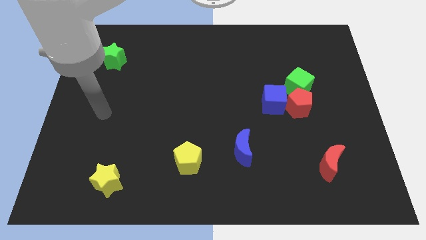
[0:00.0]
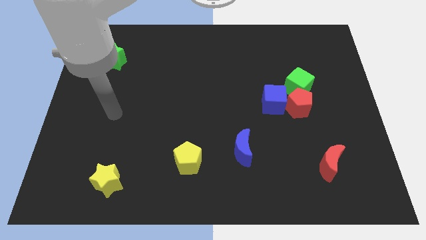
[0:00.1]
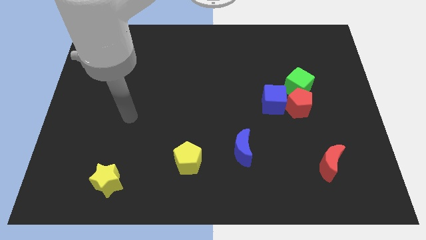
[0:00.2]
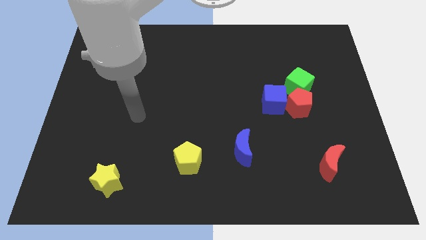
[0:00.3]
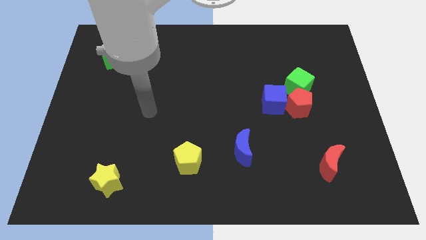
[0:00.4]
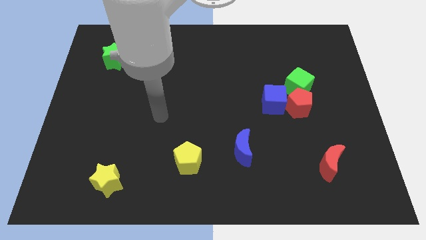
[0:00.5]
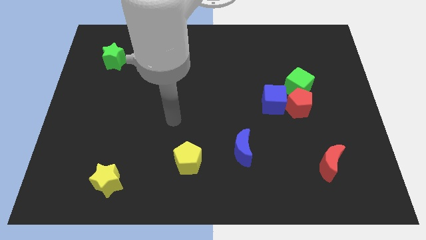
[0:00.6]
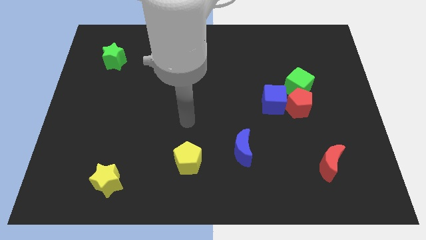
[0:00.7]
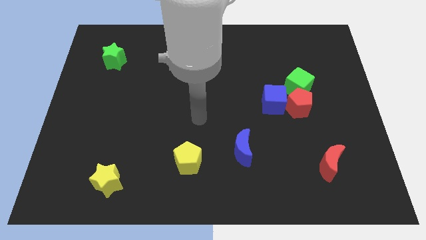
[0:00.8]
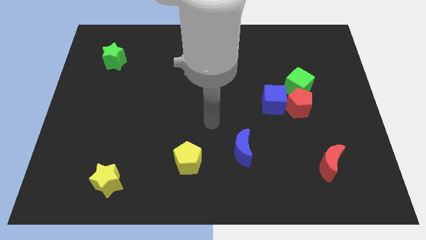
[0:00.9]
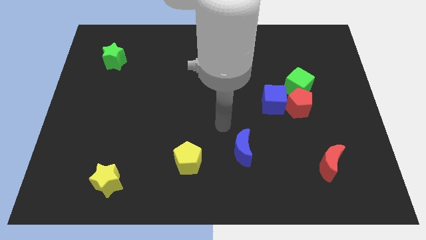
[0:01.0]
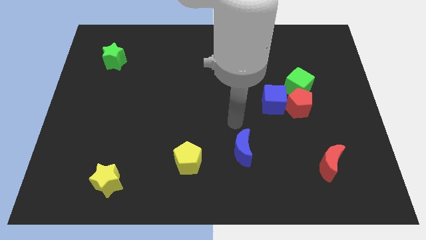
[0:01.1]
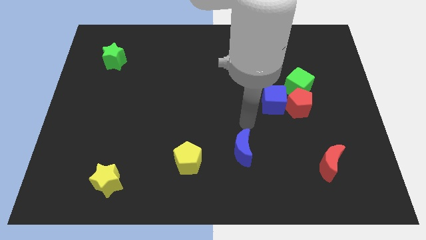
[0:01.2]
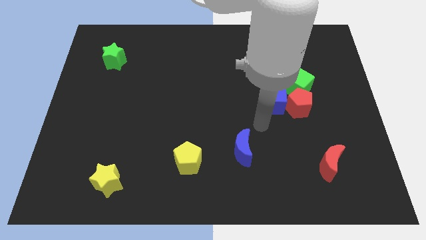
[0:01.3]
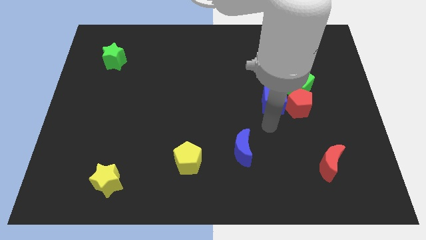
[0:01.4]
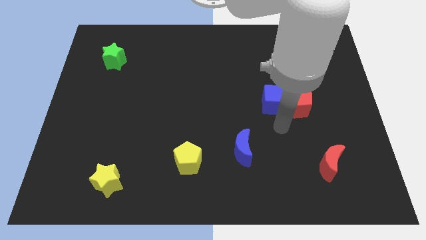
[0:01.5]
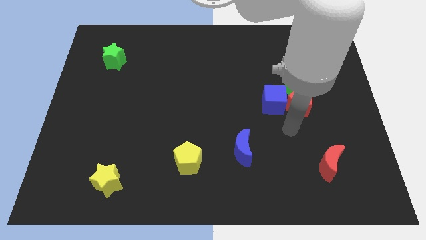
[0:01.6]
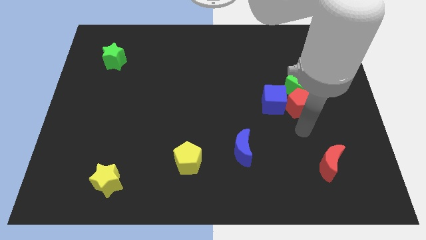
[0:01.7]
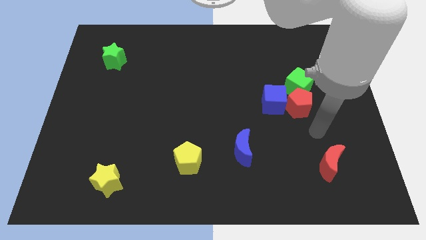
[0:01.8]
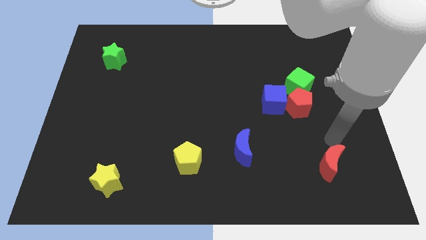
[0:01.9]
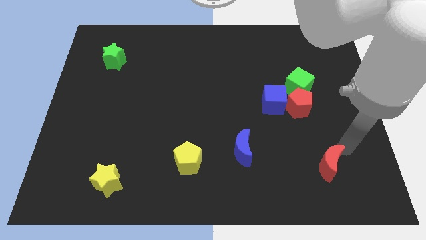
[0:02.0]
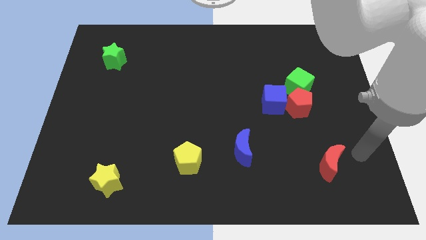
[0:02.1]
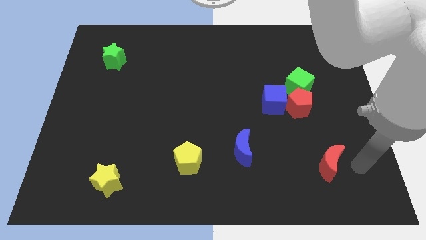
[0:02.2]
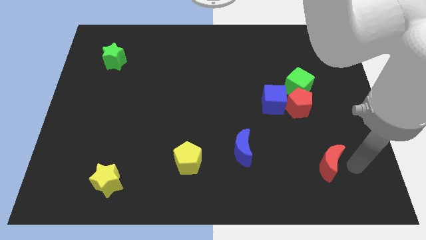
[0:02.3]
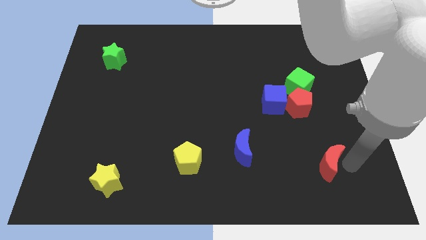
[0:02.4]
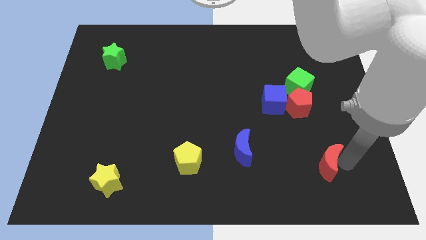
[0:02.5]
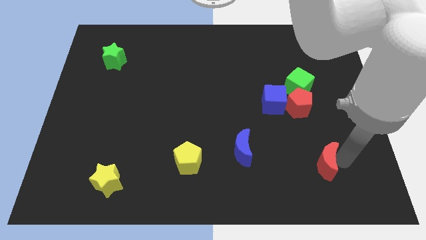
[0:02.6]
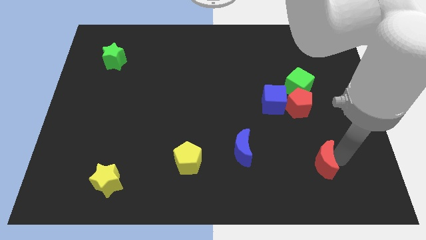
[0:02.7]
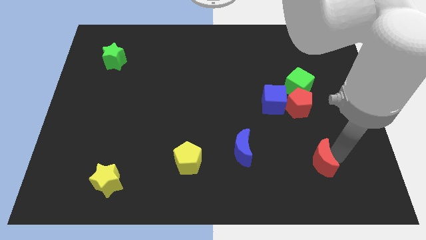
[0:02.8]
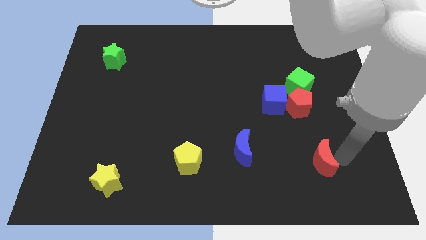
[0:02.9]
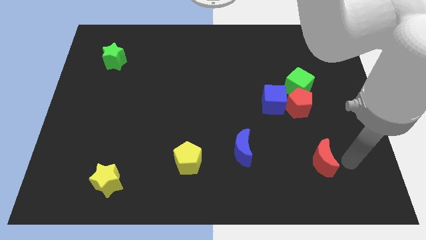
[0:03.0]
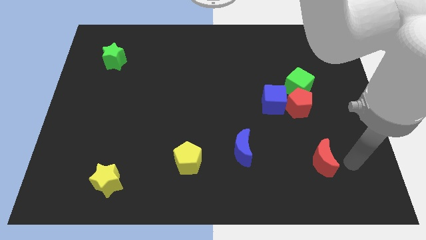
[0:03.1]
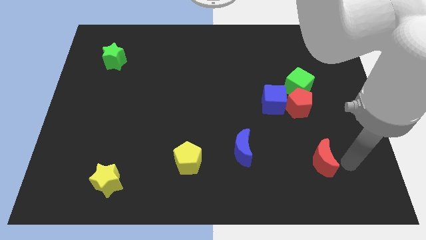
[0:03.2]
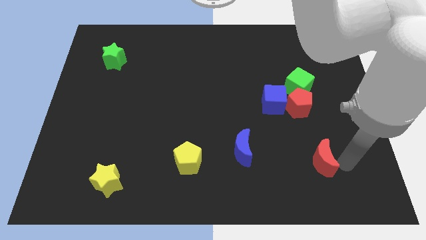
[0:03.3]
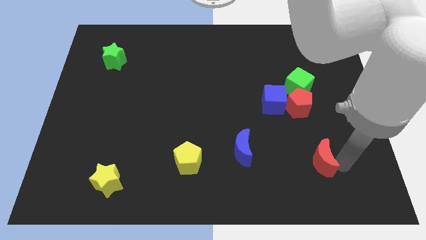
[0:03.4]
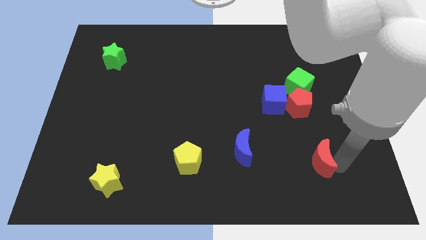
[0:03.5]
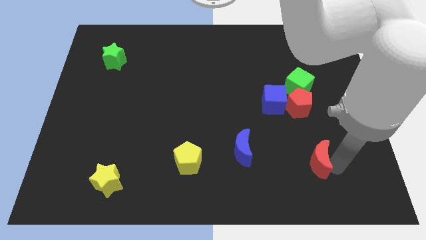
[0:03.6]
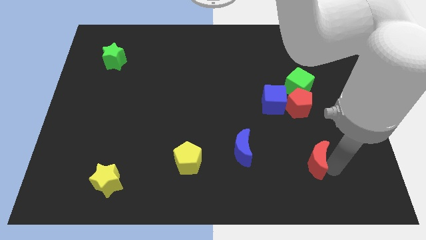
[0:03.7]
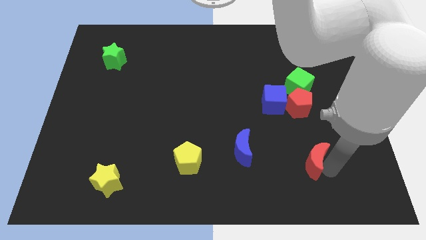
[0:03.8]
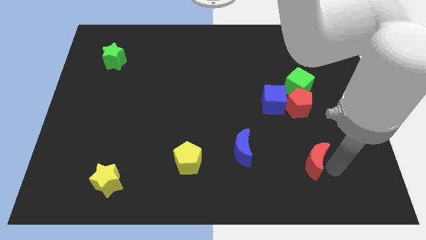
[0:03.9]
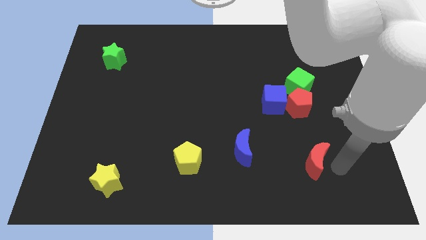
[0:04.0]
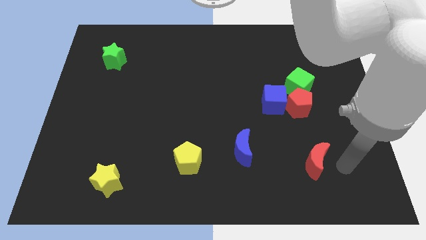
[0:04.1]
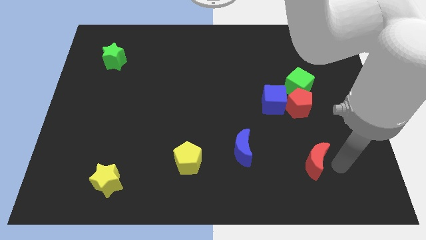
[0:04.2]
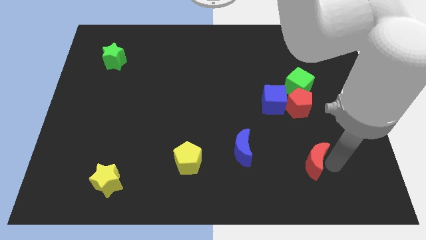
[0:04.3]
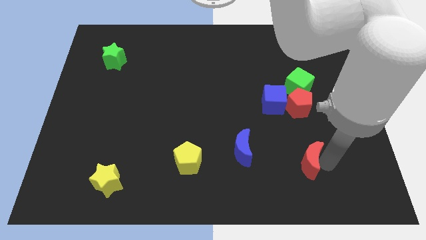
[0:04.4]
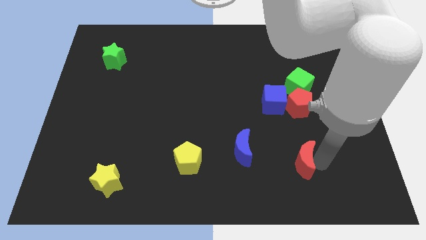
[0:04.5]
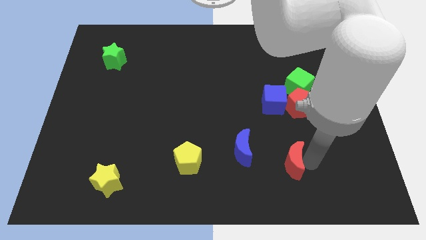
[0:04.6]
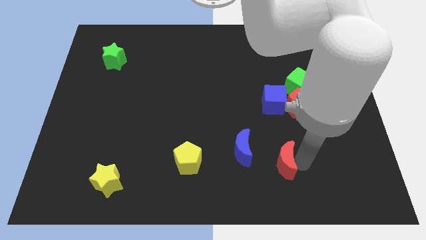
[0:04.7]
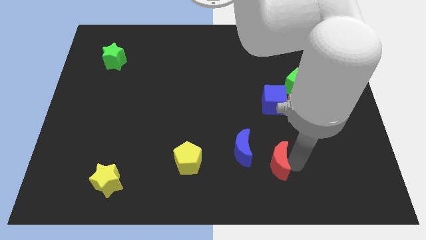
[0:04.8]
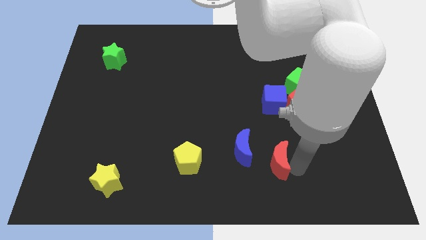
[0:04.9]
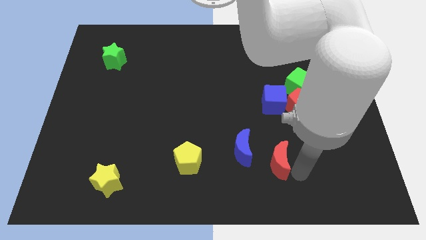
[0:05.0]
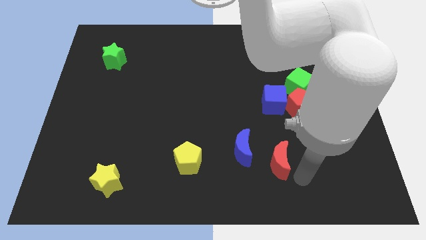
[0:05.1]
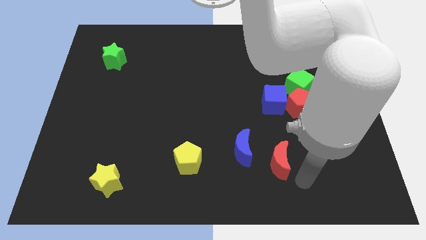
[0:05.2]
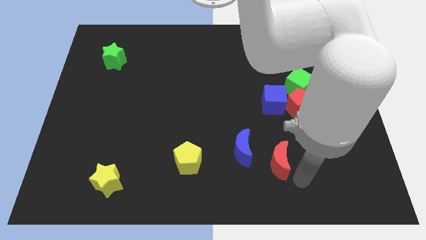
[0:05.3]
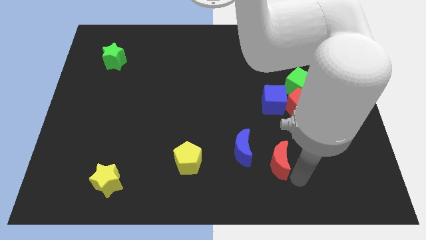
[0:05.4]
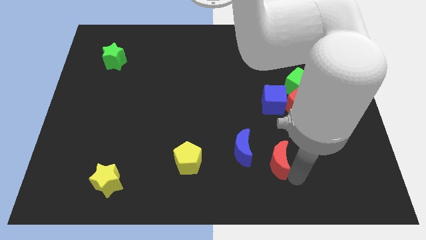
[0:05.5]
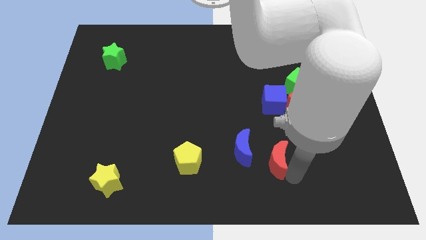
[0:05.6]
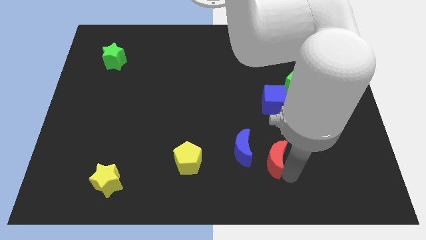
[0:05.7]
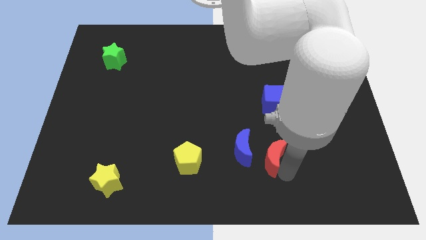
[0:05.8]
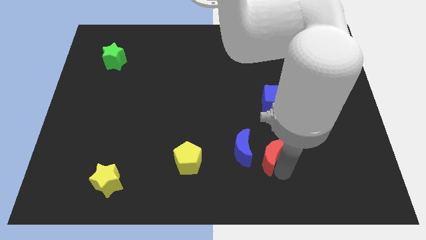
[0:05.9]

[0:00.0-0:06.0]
push the red moon to the blue moon

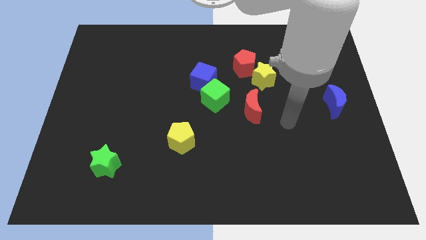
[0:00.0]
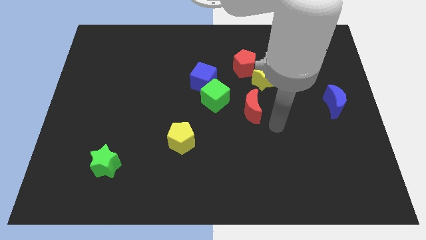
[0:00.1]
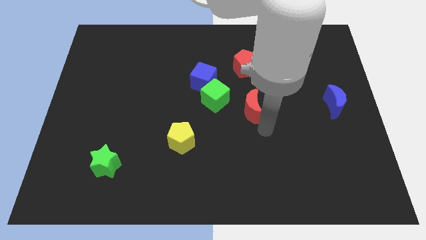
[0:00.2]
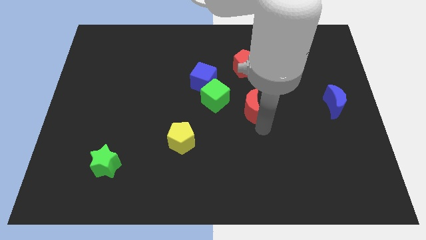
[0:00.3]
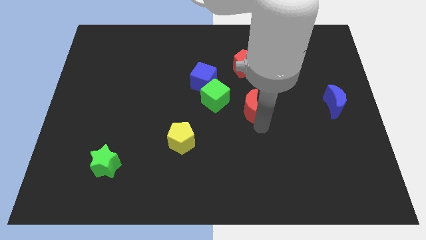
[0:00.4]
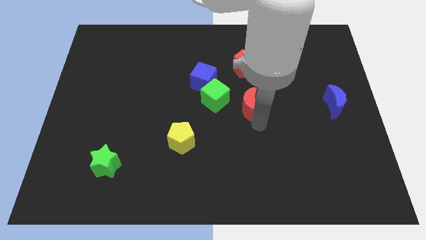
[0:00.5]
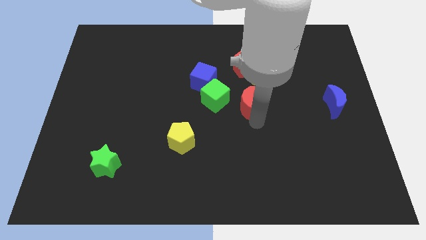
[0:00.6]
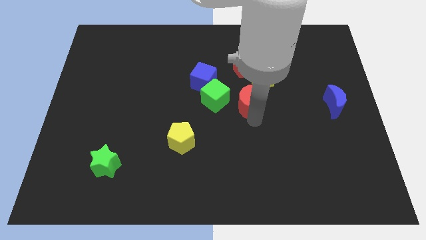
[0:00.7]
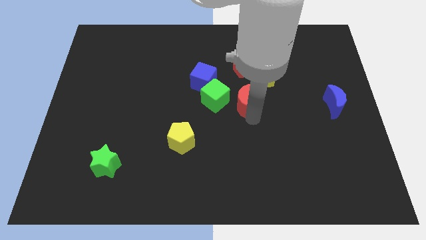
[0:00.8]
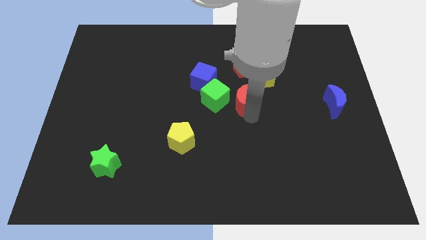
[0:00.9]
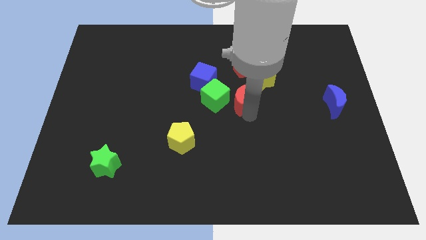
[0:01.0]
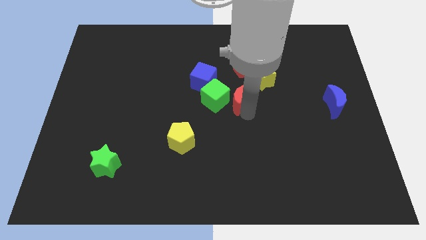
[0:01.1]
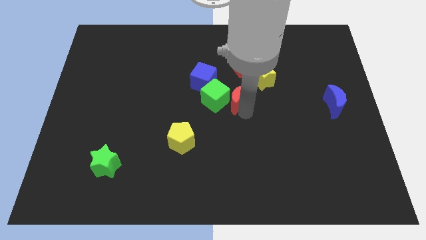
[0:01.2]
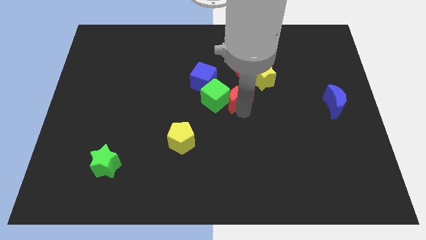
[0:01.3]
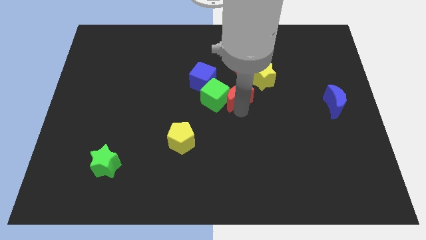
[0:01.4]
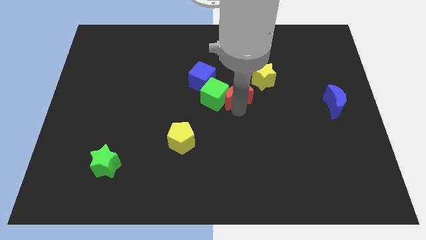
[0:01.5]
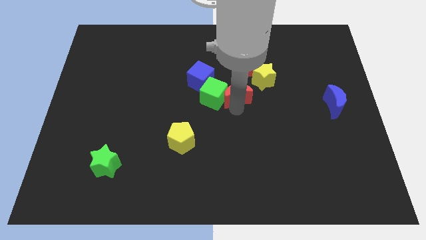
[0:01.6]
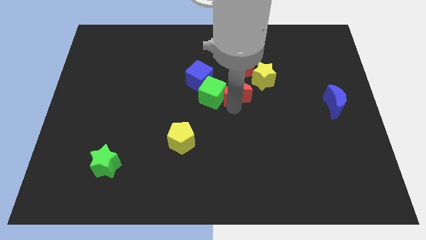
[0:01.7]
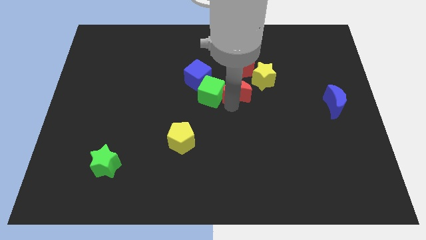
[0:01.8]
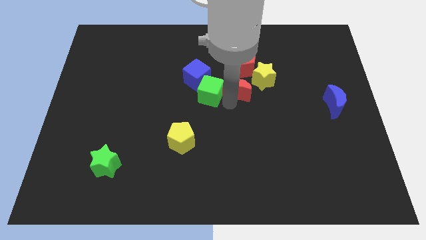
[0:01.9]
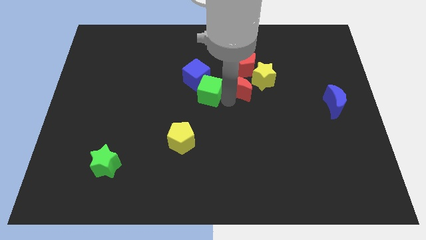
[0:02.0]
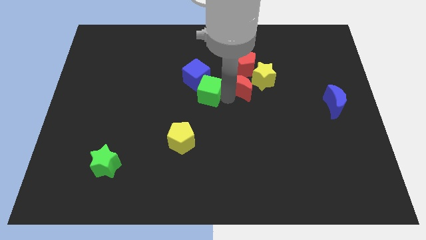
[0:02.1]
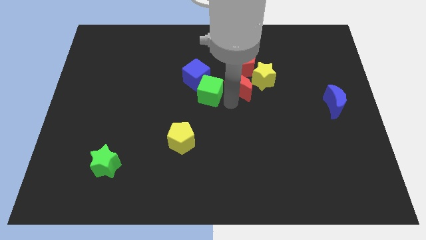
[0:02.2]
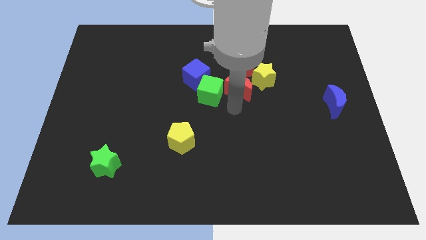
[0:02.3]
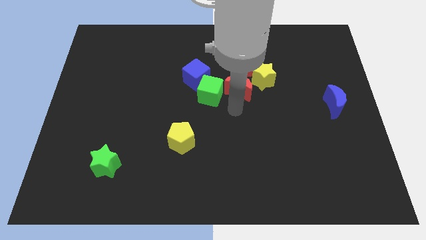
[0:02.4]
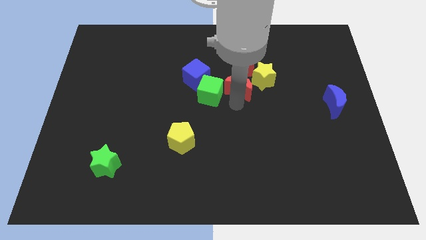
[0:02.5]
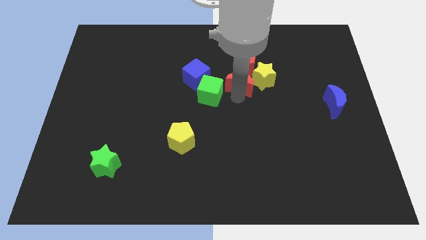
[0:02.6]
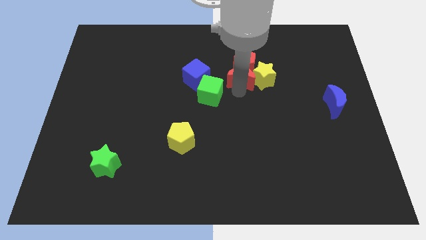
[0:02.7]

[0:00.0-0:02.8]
slide the red moon towards the red pentagon
